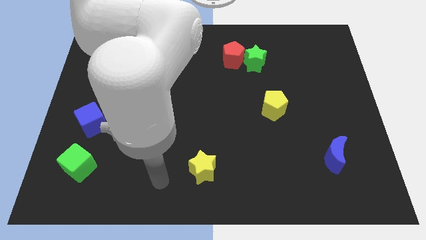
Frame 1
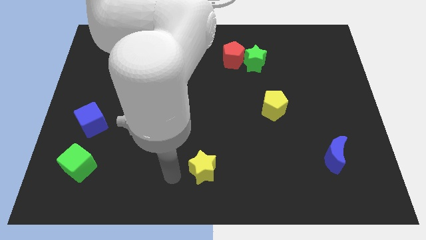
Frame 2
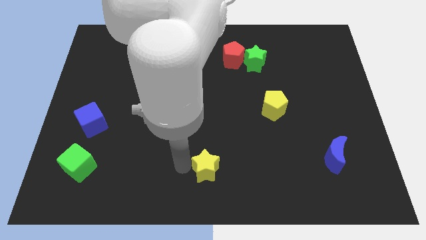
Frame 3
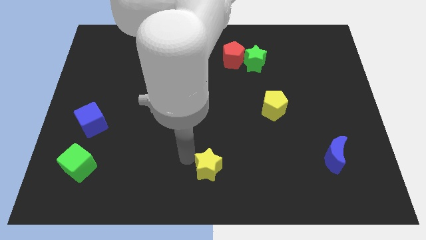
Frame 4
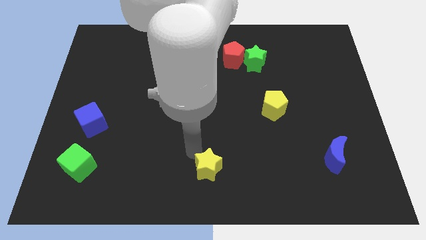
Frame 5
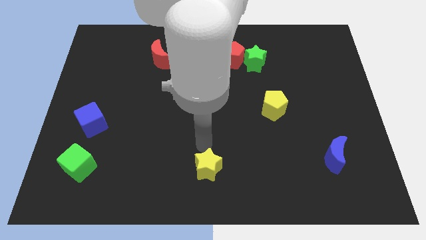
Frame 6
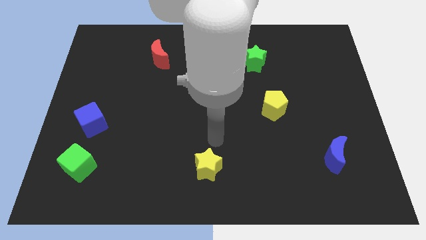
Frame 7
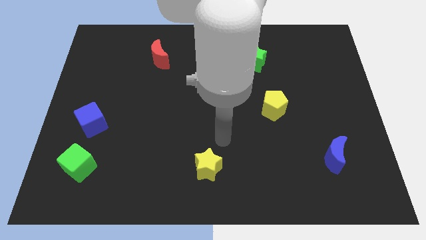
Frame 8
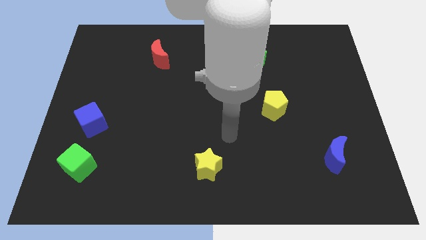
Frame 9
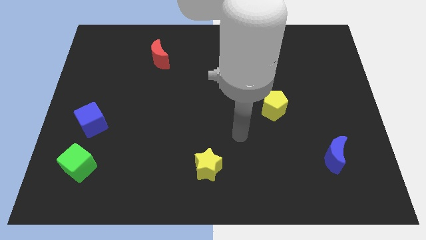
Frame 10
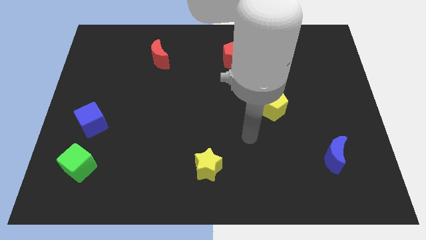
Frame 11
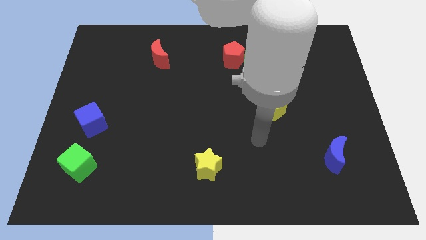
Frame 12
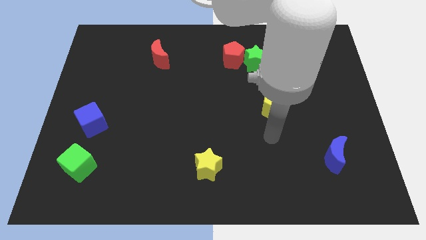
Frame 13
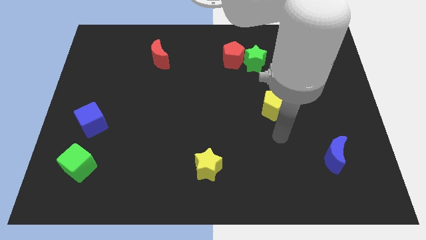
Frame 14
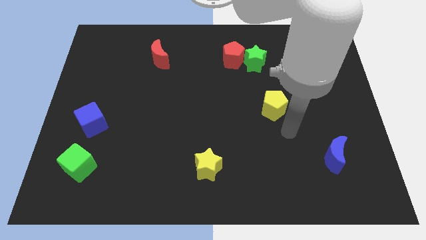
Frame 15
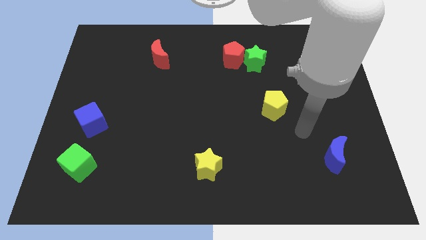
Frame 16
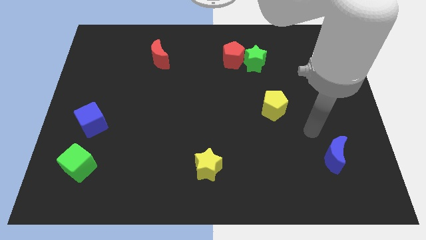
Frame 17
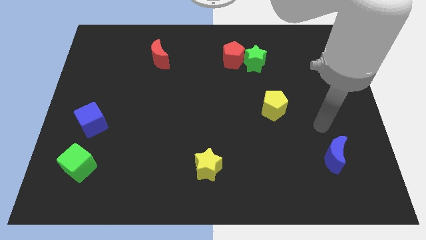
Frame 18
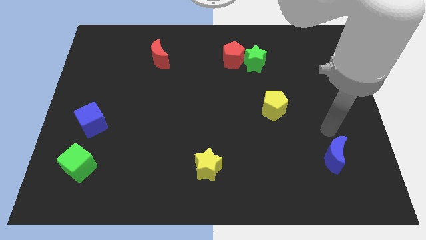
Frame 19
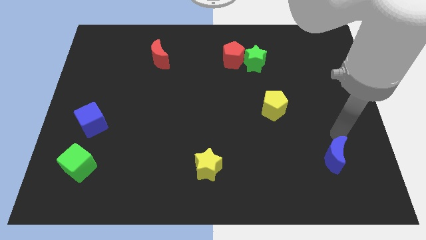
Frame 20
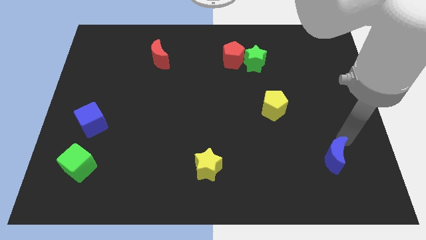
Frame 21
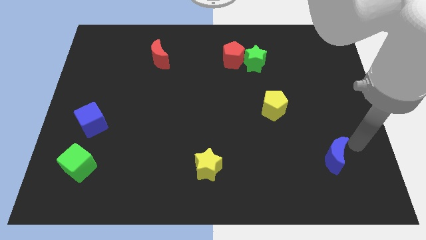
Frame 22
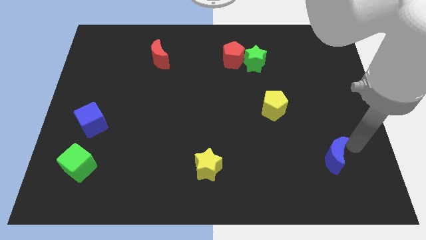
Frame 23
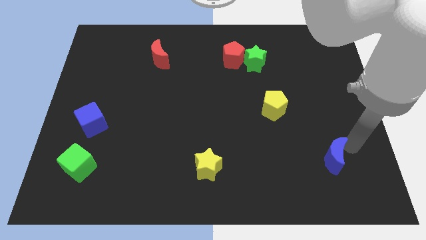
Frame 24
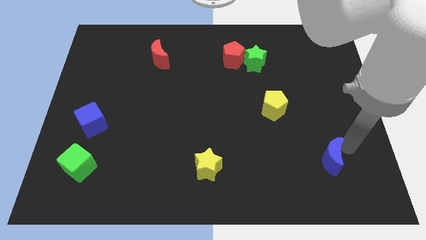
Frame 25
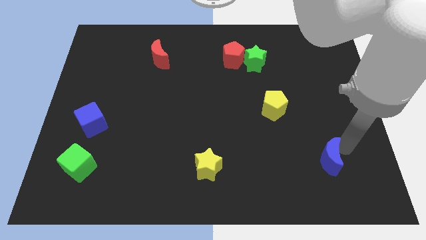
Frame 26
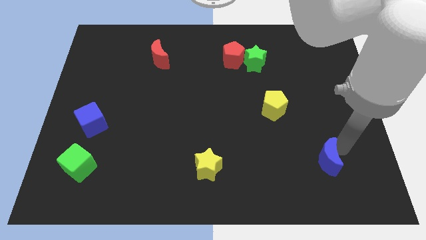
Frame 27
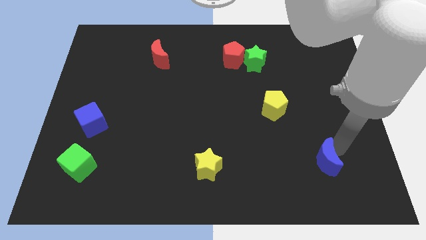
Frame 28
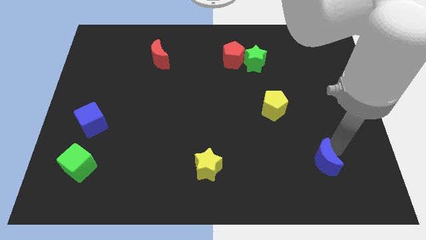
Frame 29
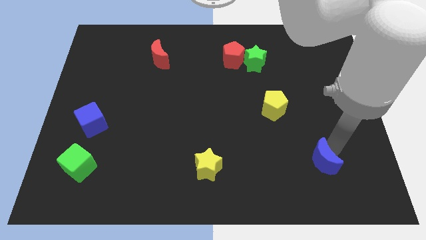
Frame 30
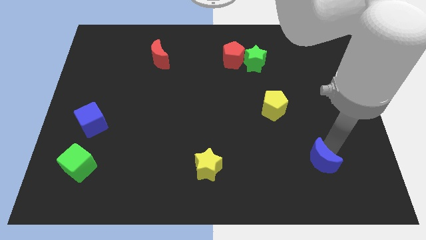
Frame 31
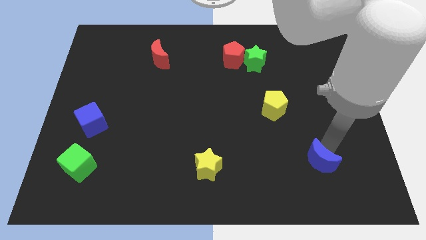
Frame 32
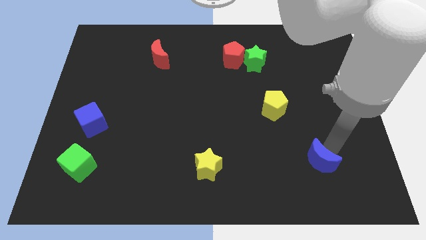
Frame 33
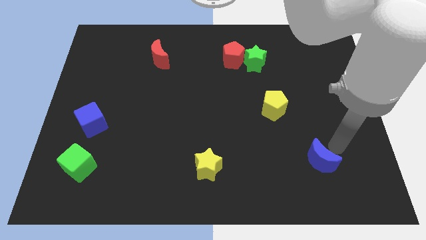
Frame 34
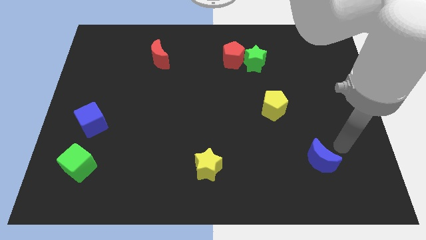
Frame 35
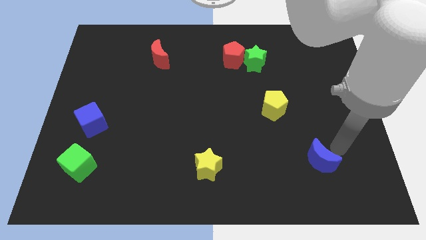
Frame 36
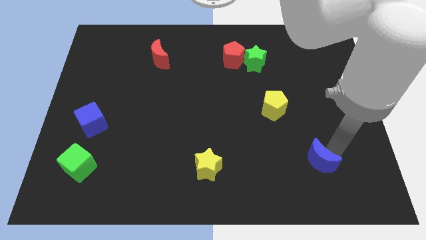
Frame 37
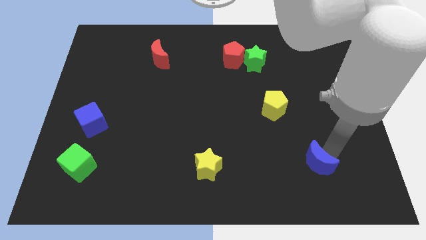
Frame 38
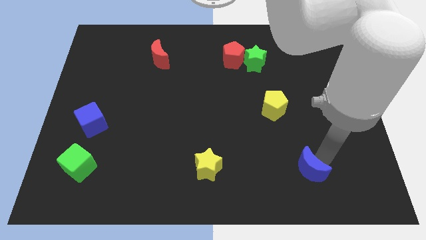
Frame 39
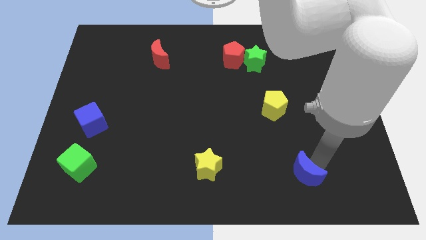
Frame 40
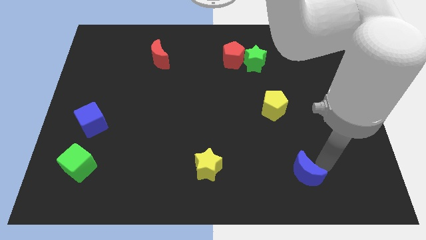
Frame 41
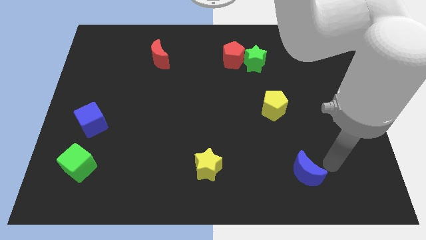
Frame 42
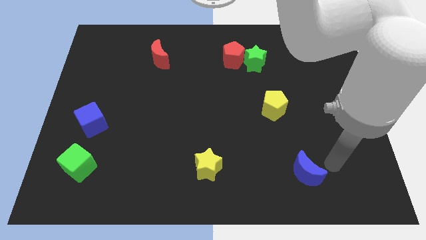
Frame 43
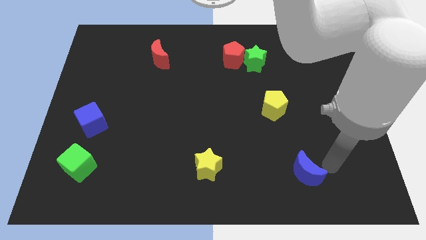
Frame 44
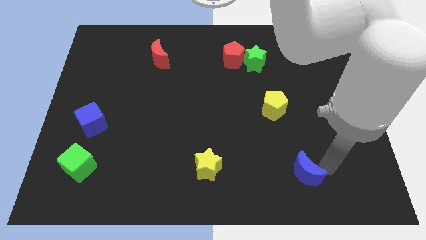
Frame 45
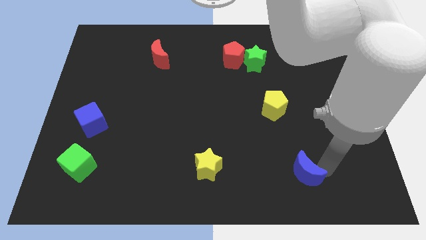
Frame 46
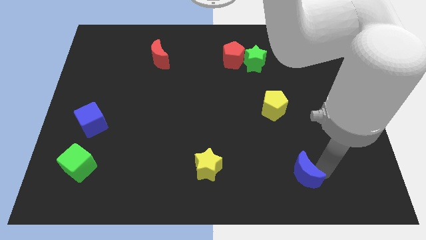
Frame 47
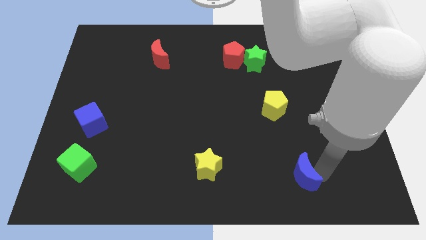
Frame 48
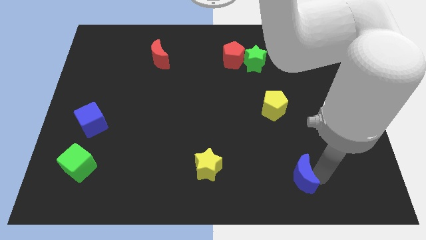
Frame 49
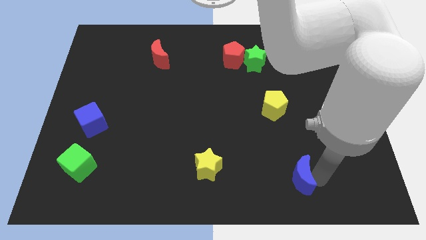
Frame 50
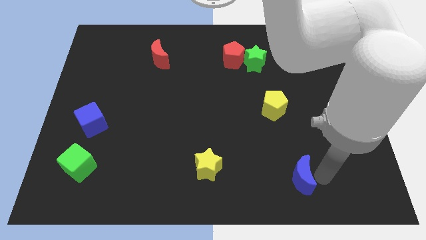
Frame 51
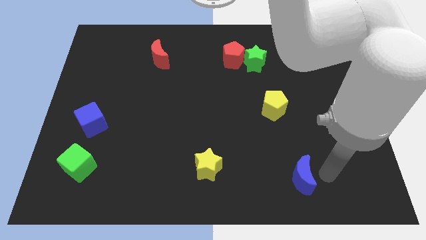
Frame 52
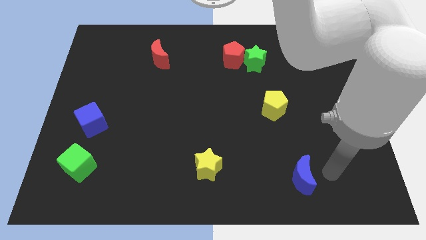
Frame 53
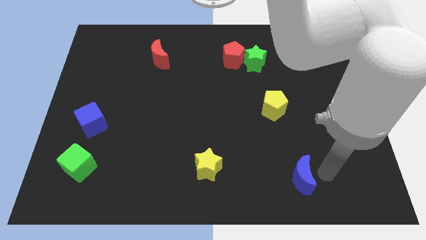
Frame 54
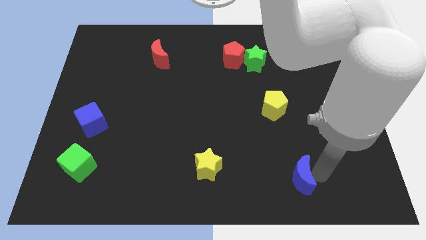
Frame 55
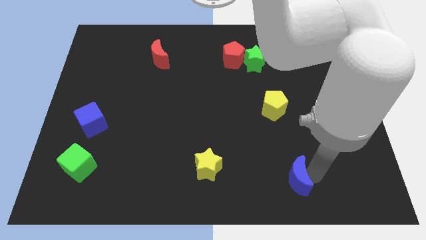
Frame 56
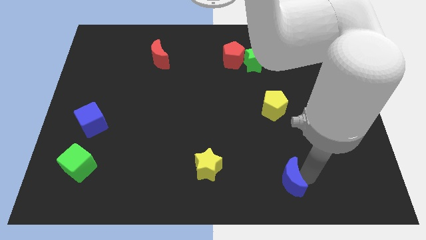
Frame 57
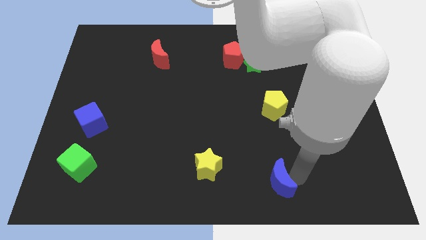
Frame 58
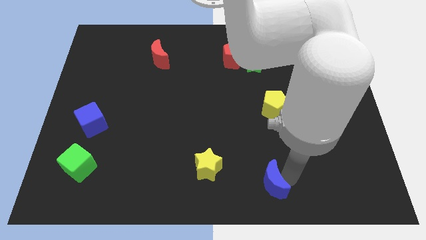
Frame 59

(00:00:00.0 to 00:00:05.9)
slide the blue moon to the bottom side

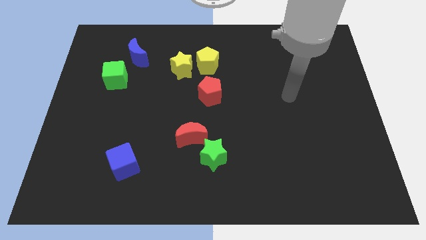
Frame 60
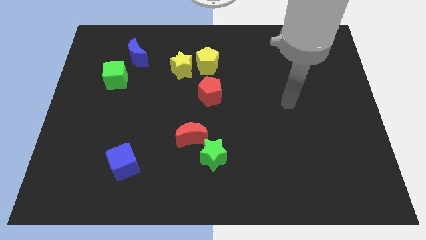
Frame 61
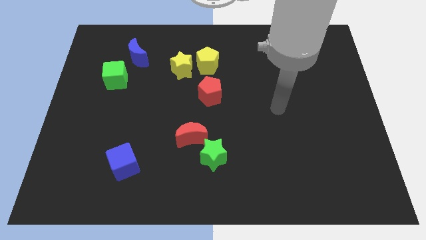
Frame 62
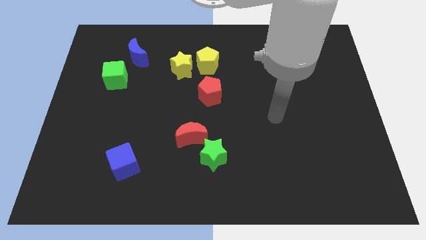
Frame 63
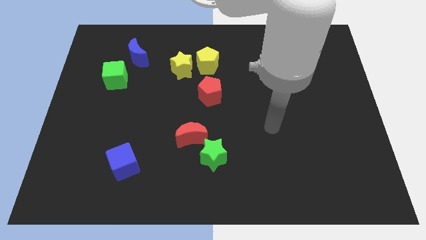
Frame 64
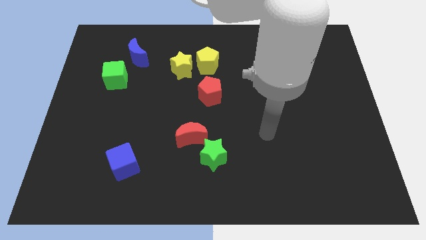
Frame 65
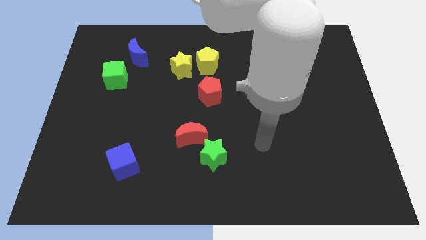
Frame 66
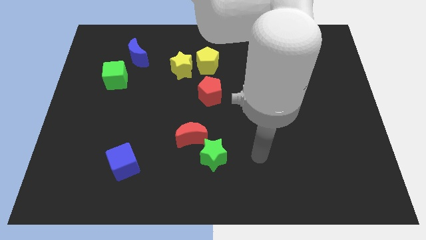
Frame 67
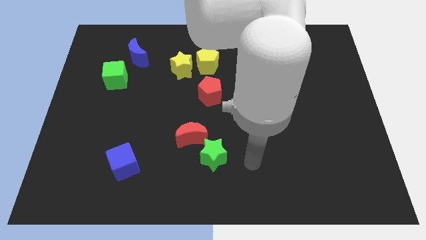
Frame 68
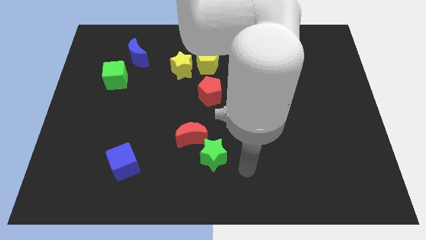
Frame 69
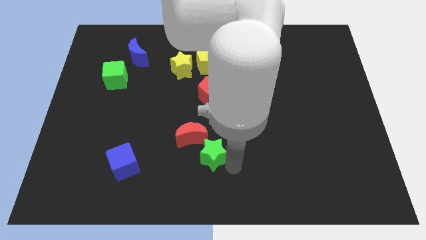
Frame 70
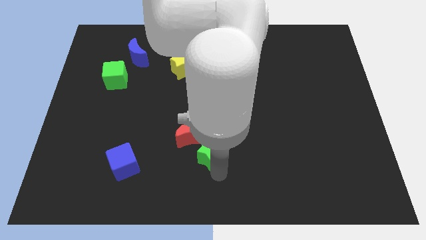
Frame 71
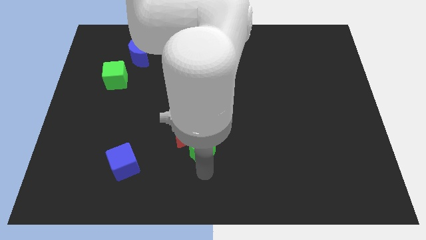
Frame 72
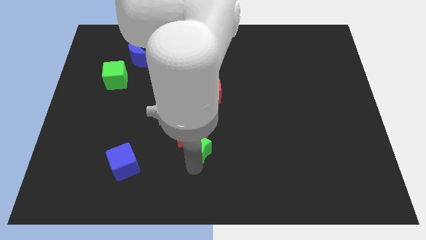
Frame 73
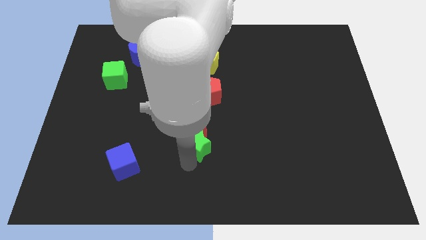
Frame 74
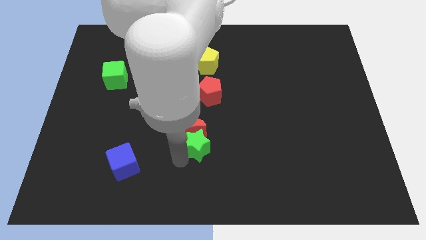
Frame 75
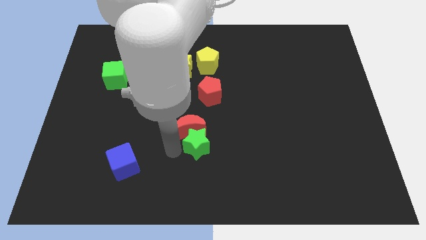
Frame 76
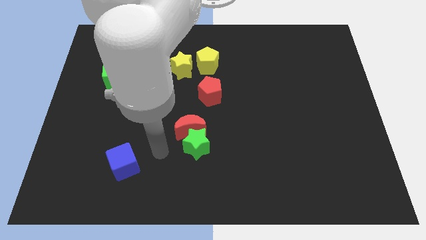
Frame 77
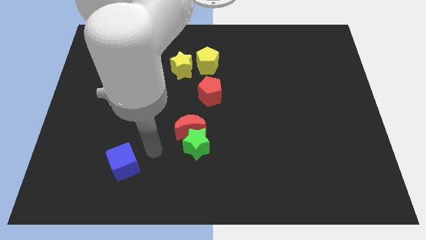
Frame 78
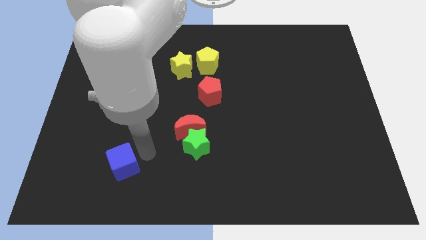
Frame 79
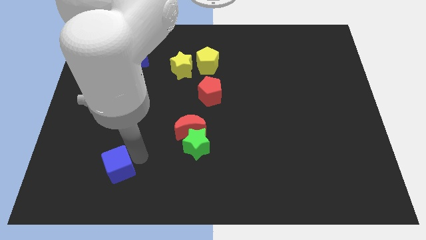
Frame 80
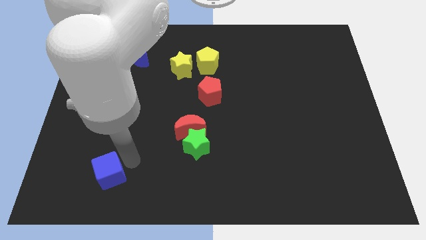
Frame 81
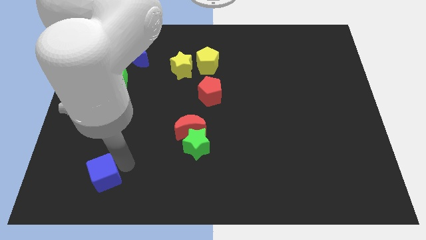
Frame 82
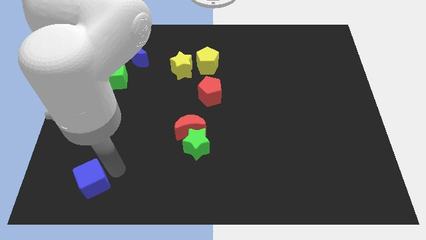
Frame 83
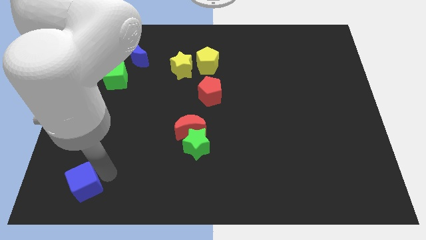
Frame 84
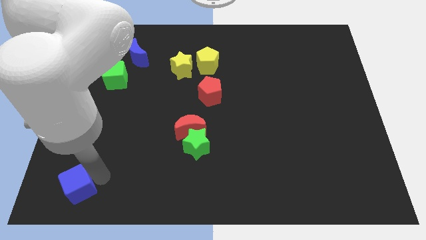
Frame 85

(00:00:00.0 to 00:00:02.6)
put the blue cube to the bottom left
